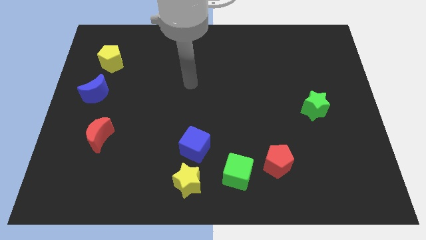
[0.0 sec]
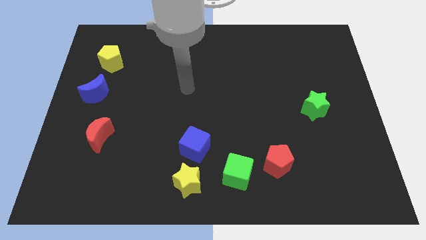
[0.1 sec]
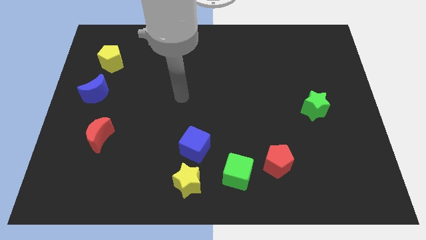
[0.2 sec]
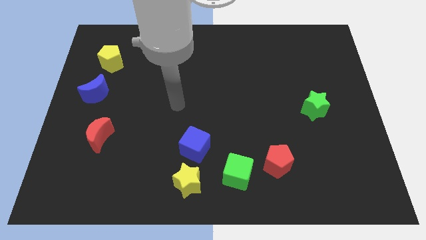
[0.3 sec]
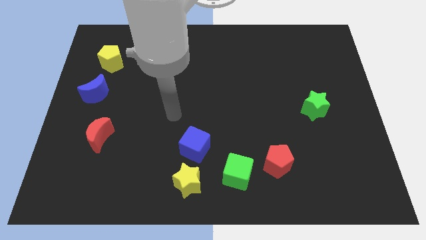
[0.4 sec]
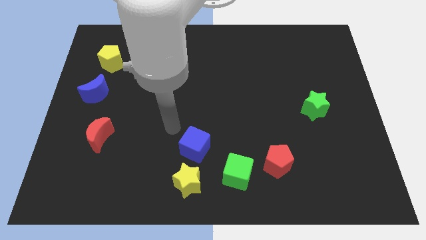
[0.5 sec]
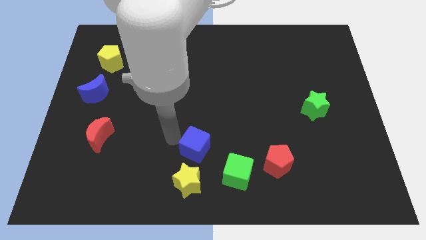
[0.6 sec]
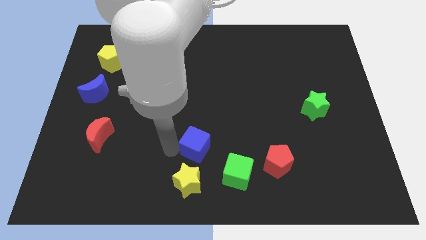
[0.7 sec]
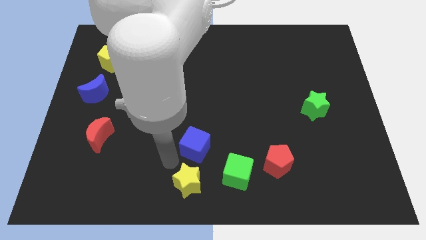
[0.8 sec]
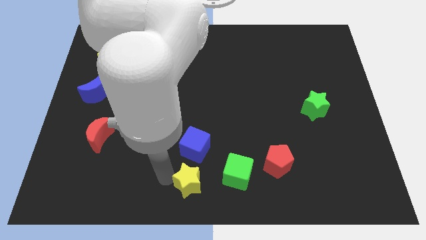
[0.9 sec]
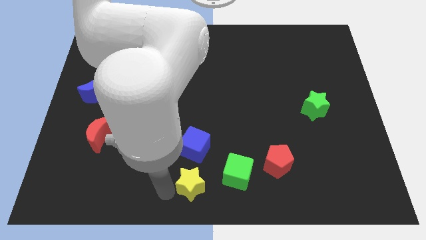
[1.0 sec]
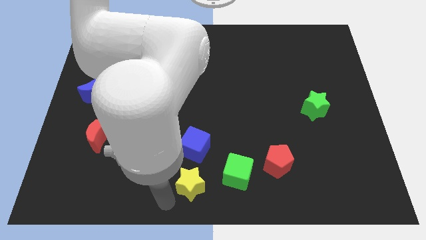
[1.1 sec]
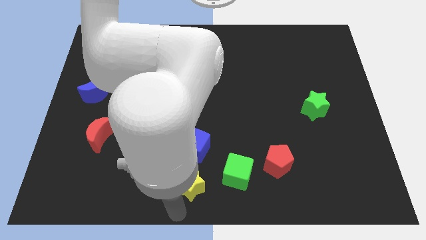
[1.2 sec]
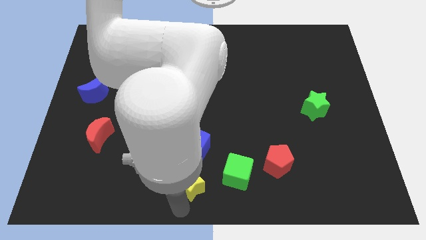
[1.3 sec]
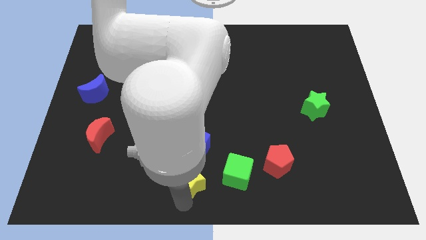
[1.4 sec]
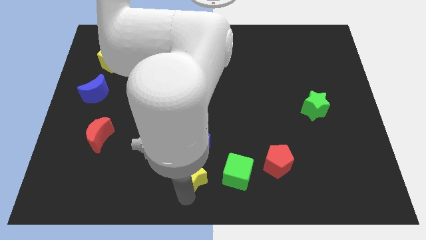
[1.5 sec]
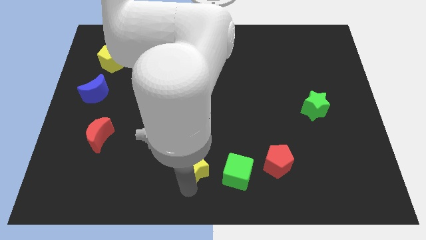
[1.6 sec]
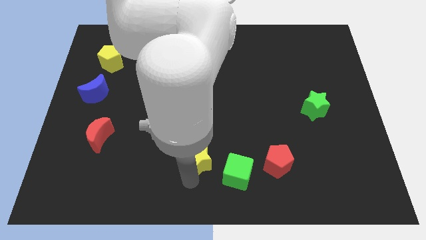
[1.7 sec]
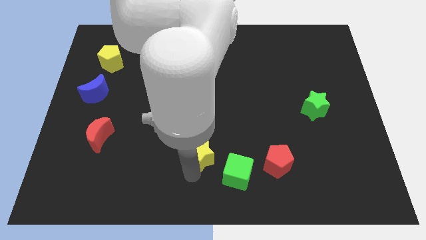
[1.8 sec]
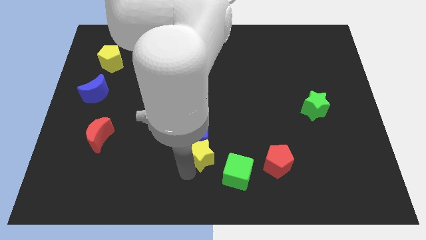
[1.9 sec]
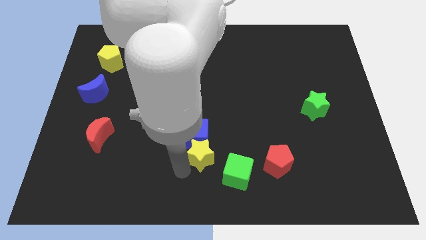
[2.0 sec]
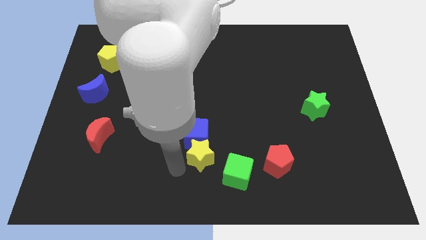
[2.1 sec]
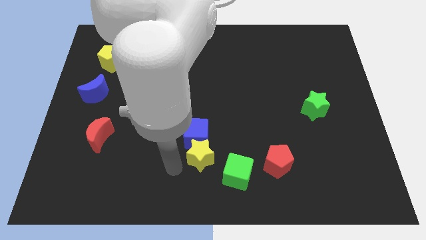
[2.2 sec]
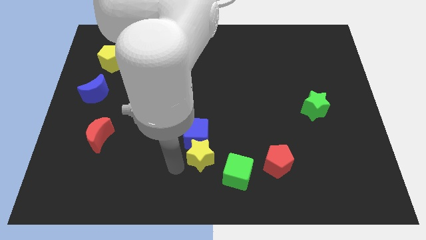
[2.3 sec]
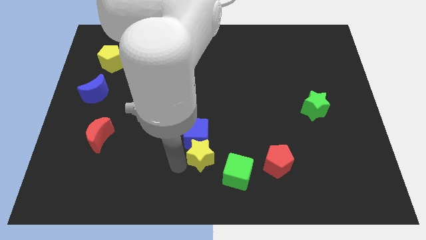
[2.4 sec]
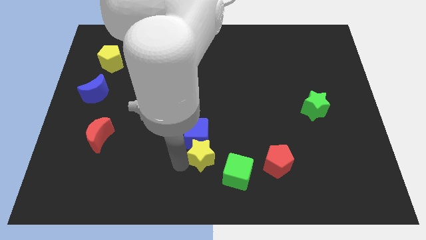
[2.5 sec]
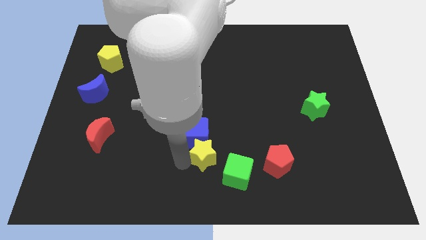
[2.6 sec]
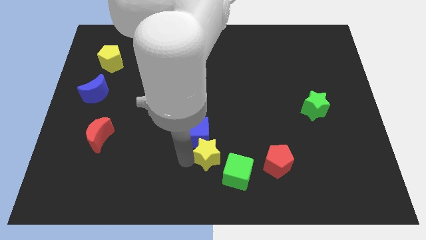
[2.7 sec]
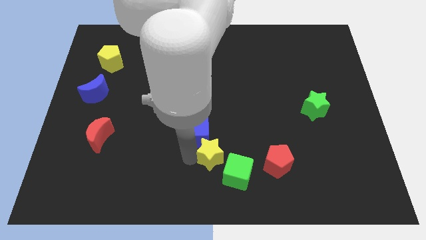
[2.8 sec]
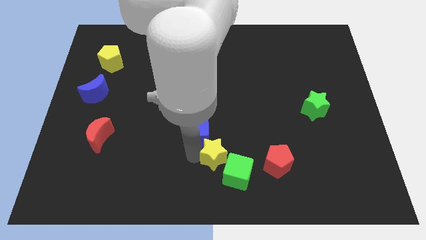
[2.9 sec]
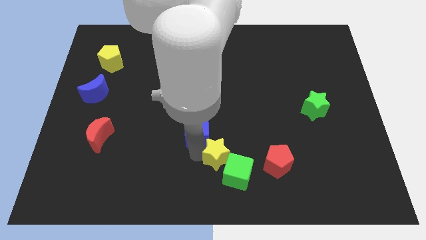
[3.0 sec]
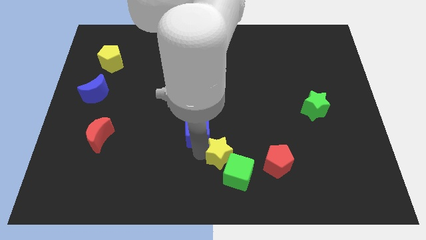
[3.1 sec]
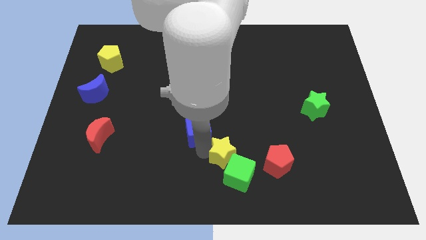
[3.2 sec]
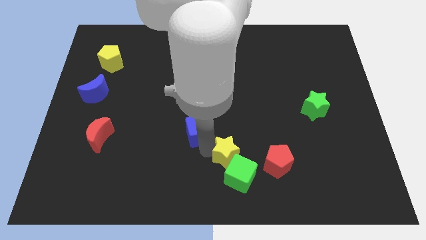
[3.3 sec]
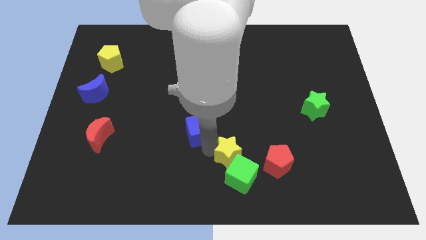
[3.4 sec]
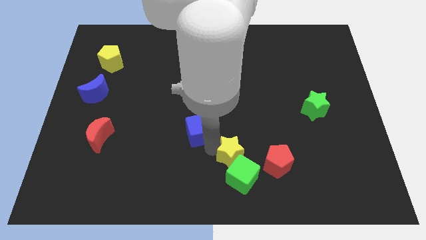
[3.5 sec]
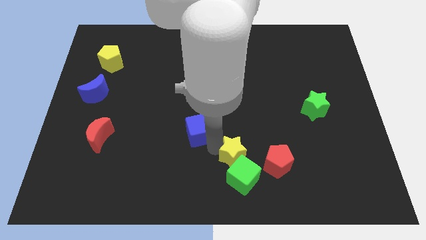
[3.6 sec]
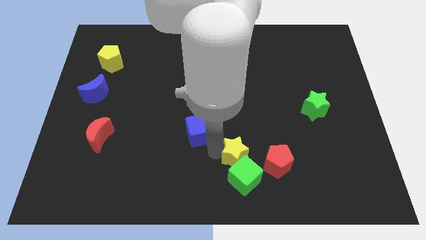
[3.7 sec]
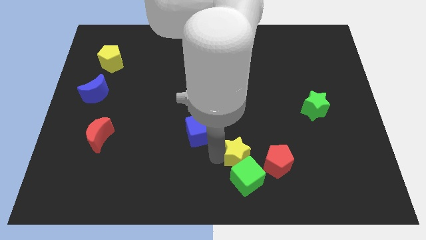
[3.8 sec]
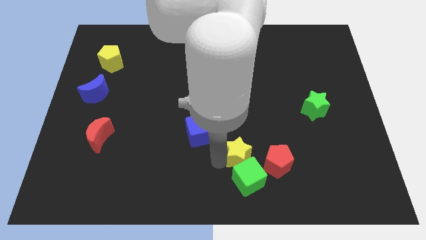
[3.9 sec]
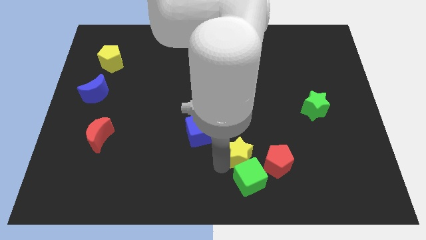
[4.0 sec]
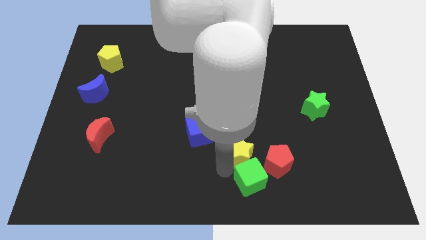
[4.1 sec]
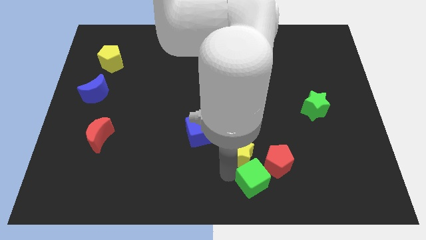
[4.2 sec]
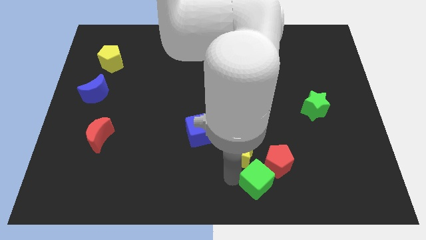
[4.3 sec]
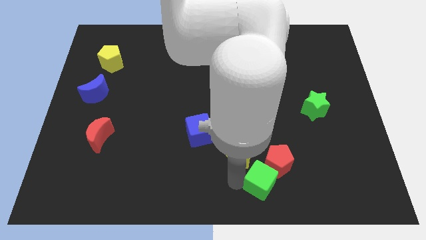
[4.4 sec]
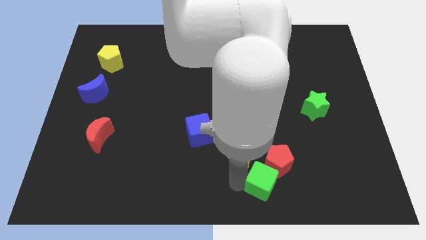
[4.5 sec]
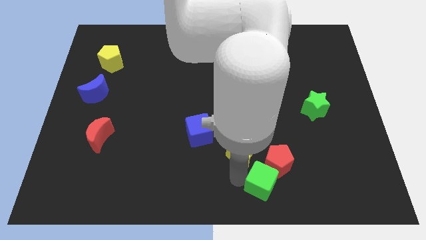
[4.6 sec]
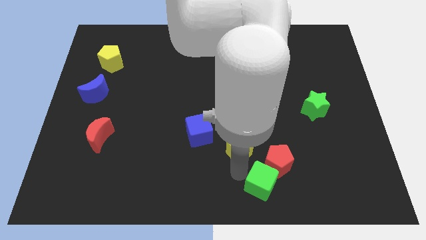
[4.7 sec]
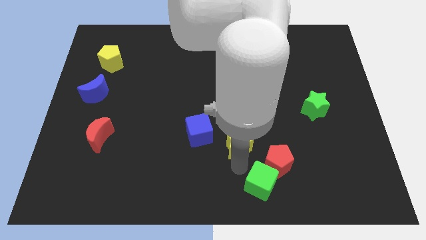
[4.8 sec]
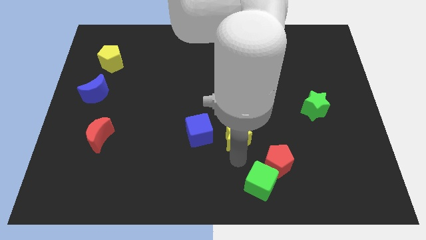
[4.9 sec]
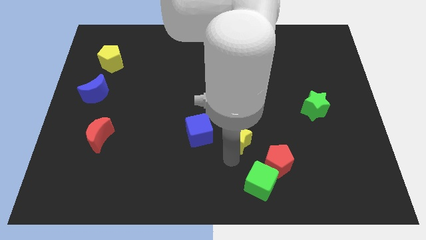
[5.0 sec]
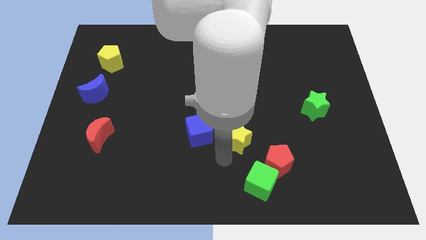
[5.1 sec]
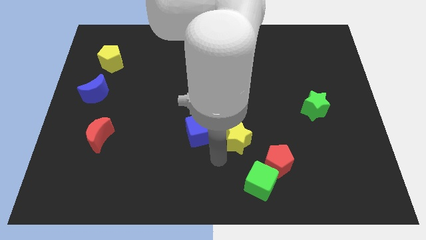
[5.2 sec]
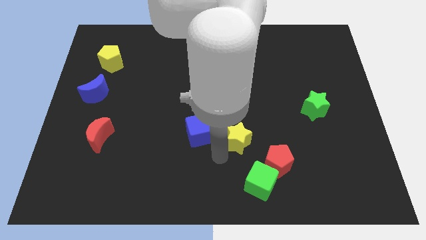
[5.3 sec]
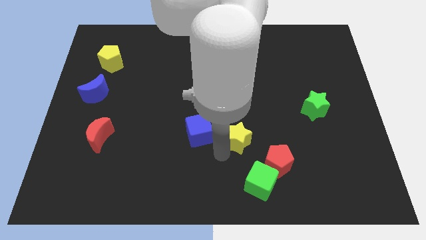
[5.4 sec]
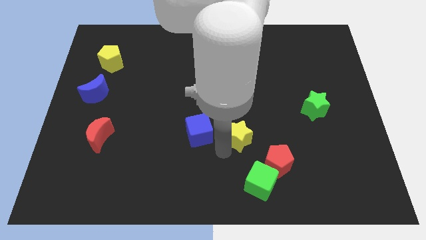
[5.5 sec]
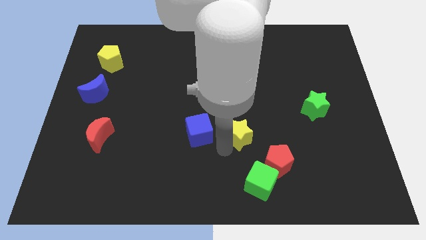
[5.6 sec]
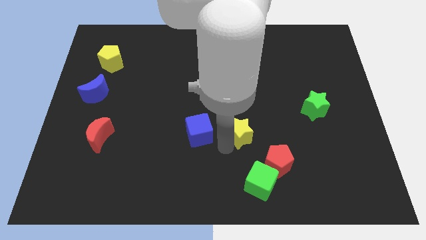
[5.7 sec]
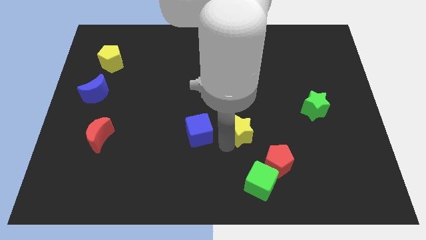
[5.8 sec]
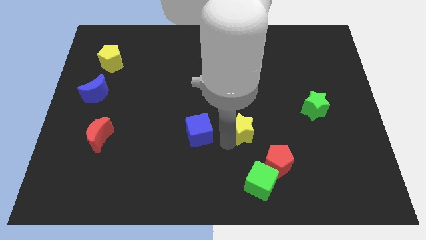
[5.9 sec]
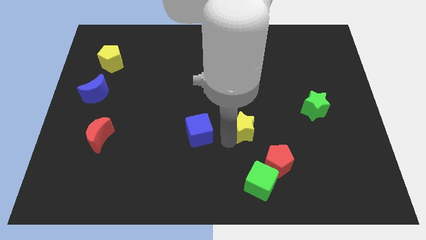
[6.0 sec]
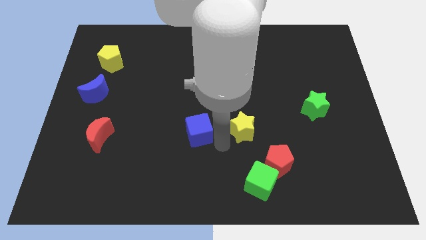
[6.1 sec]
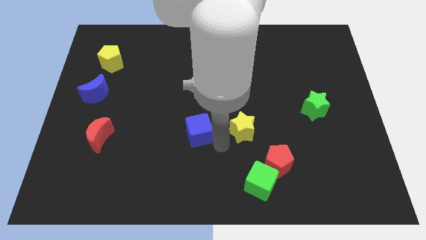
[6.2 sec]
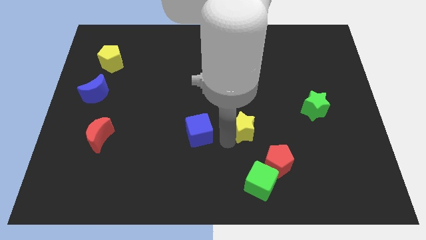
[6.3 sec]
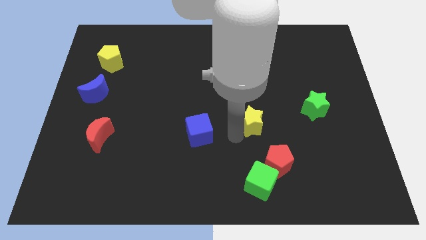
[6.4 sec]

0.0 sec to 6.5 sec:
move the yellow star diagonally upwards and to the right

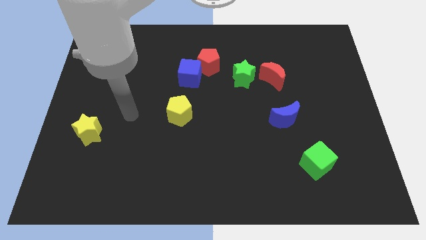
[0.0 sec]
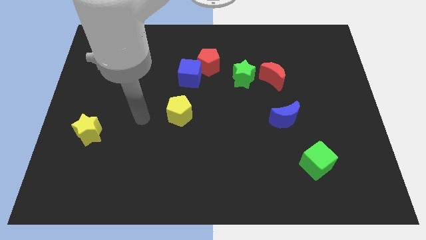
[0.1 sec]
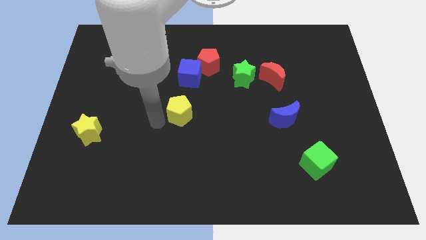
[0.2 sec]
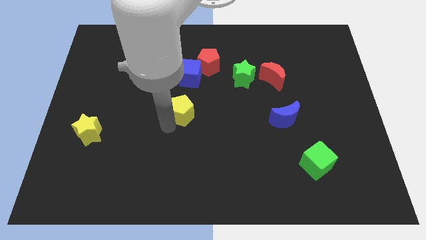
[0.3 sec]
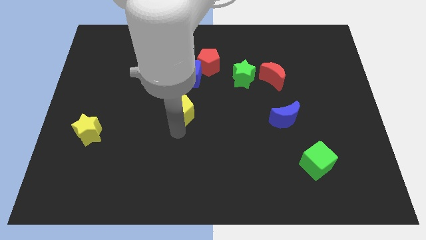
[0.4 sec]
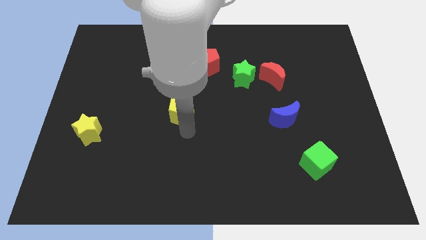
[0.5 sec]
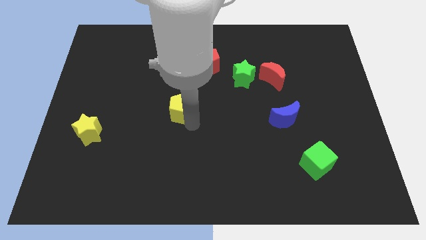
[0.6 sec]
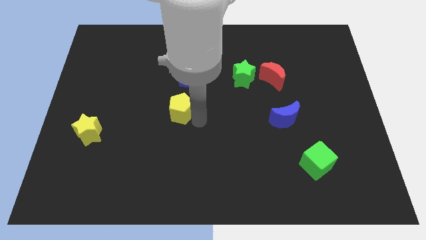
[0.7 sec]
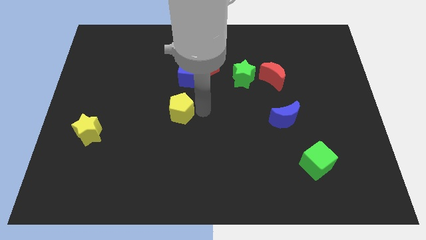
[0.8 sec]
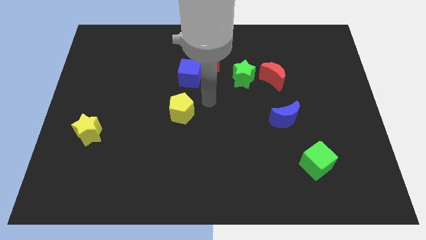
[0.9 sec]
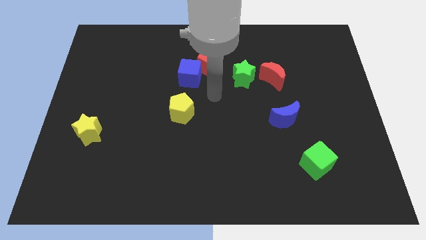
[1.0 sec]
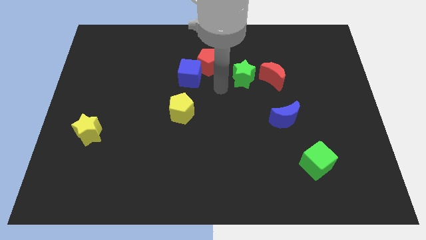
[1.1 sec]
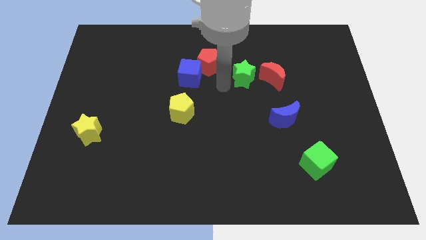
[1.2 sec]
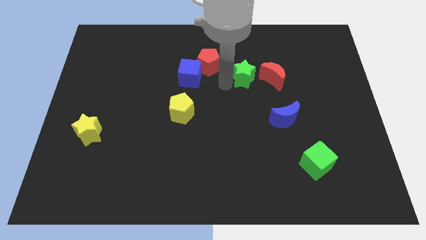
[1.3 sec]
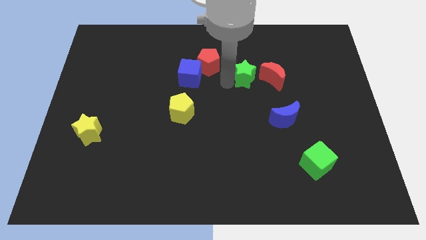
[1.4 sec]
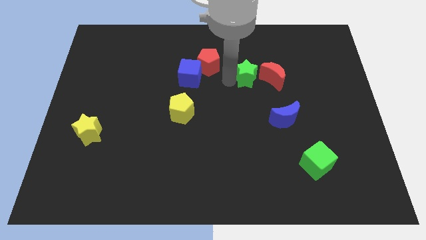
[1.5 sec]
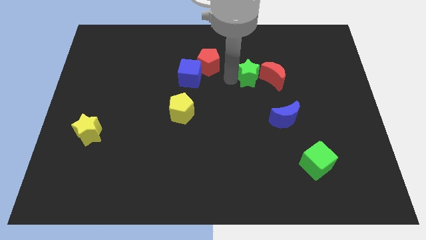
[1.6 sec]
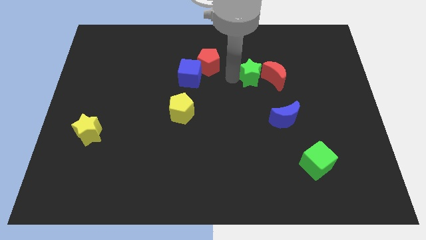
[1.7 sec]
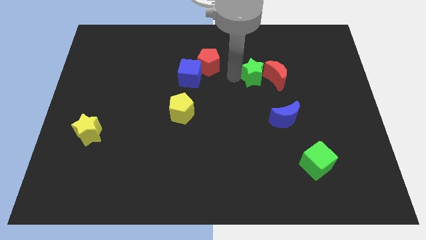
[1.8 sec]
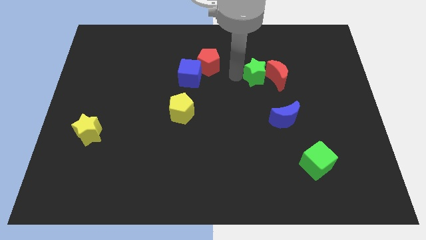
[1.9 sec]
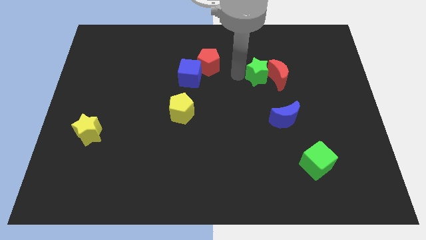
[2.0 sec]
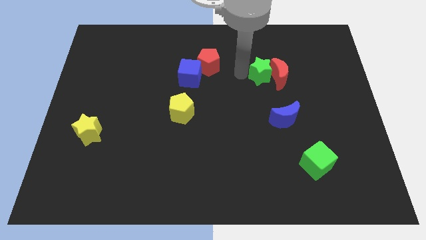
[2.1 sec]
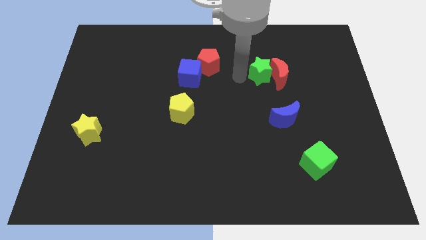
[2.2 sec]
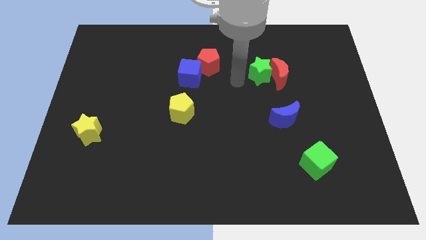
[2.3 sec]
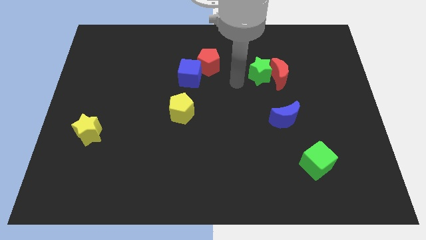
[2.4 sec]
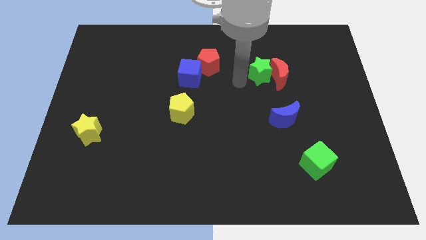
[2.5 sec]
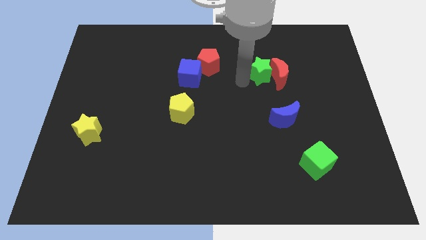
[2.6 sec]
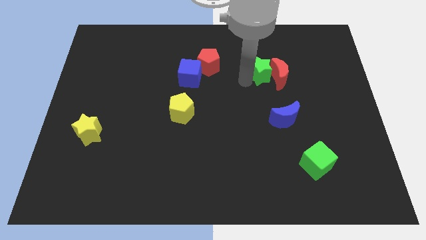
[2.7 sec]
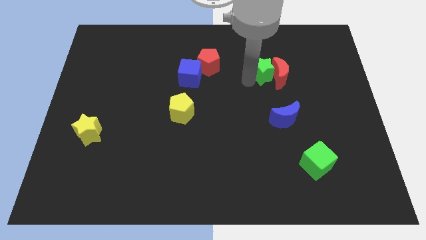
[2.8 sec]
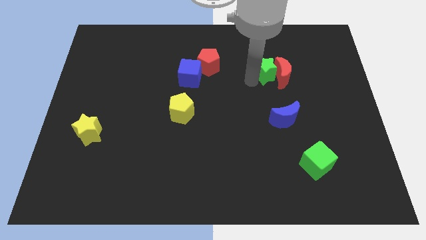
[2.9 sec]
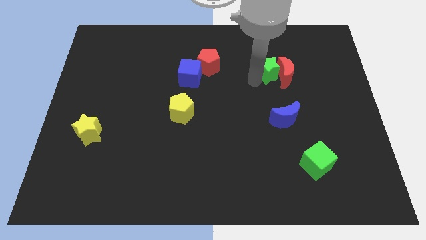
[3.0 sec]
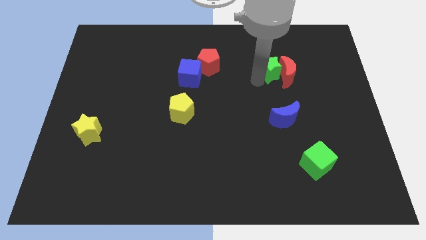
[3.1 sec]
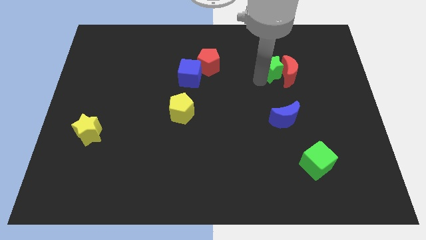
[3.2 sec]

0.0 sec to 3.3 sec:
move the green star right somewhat
